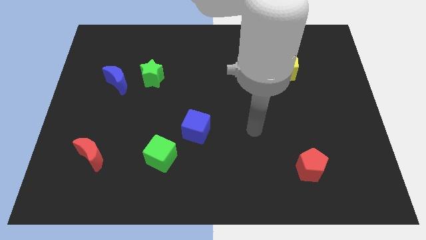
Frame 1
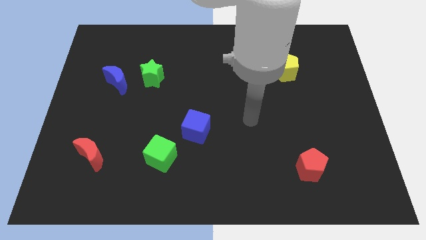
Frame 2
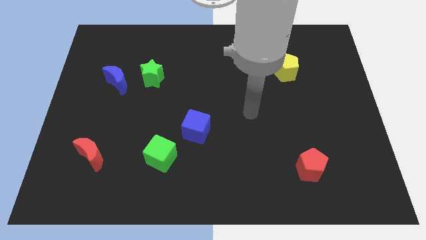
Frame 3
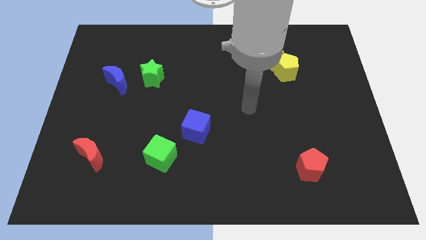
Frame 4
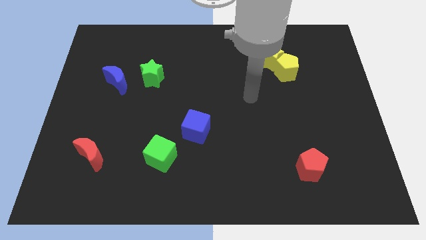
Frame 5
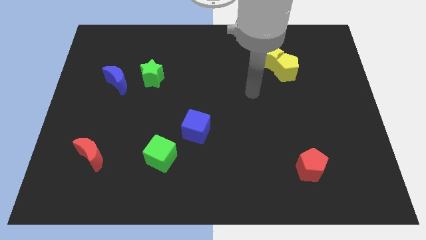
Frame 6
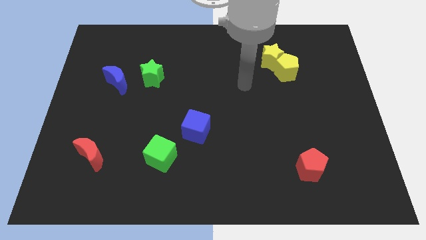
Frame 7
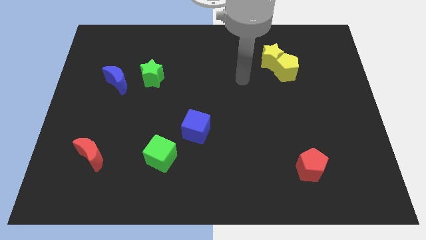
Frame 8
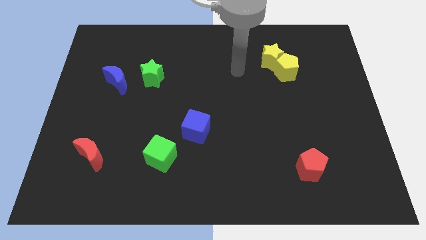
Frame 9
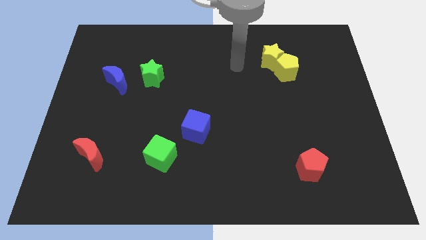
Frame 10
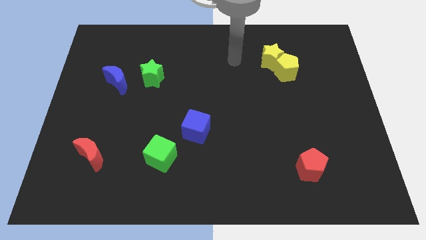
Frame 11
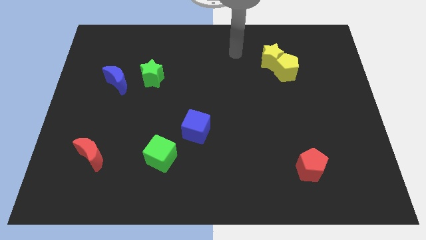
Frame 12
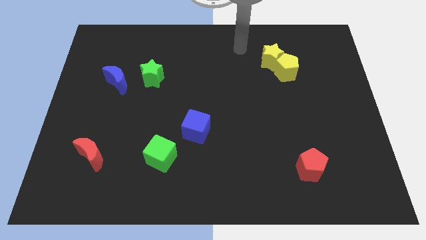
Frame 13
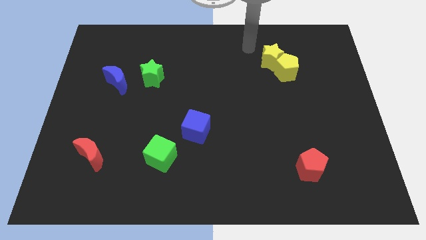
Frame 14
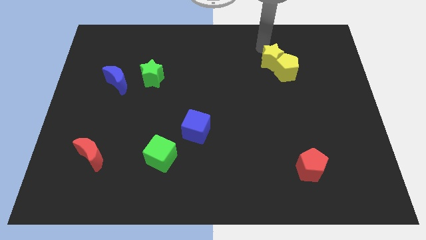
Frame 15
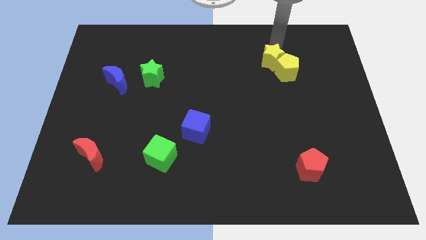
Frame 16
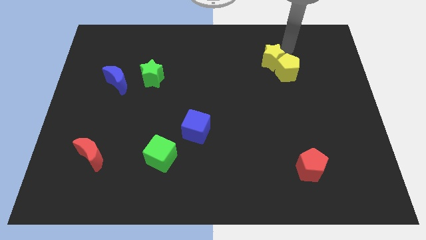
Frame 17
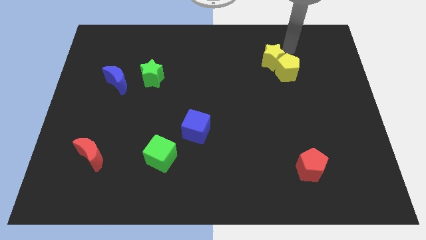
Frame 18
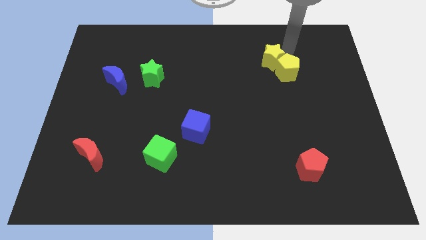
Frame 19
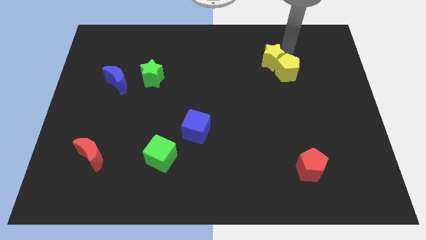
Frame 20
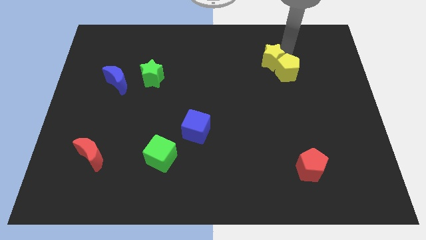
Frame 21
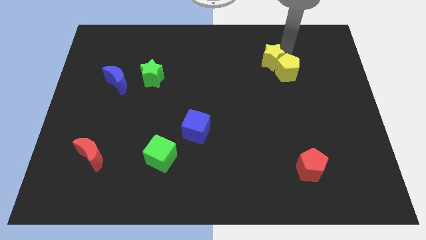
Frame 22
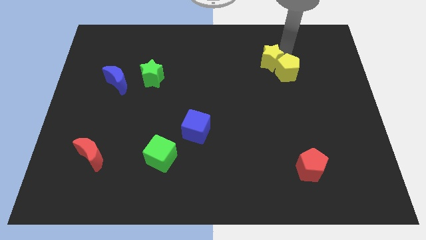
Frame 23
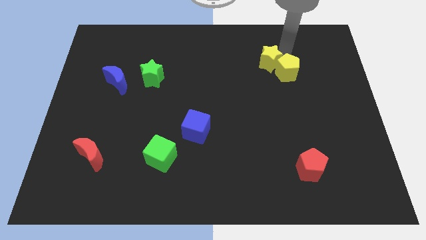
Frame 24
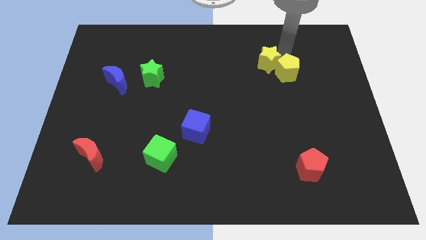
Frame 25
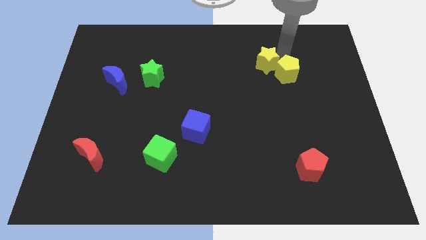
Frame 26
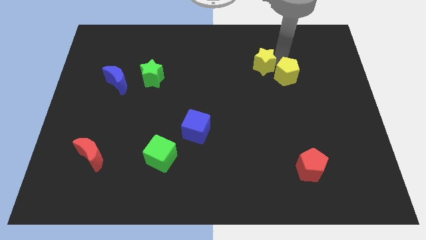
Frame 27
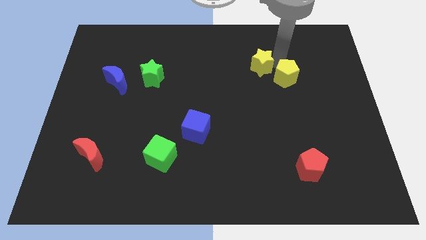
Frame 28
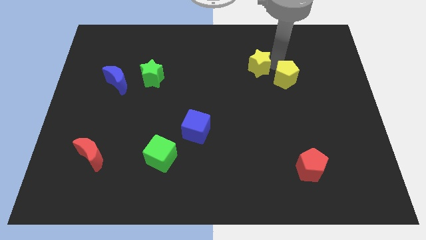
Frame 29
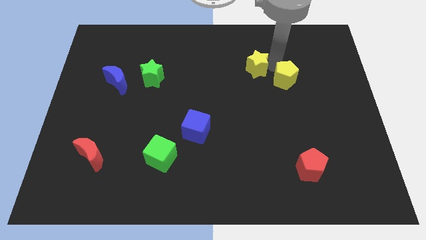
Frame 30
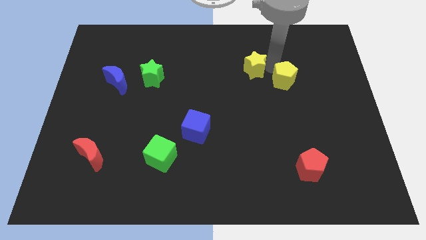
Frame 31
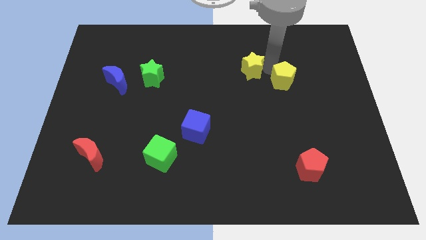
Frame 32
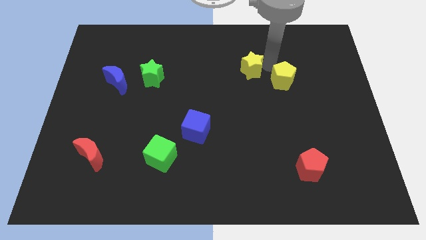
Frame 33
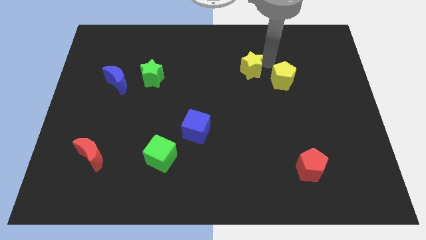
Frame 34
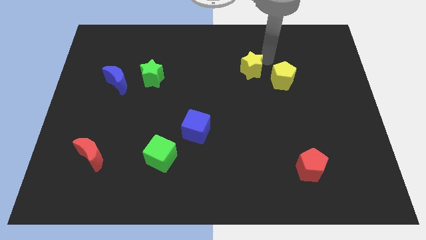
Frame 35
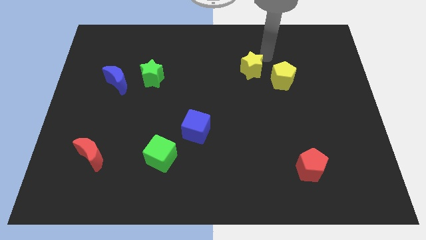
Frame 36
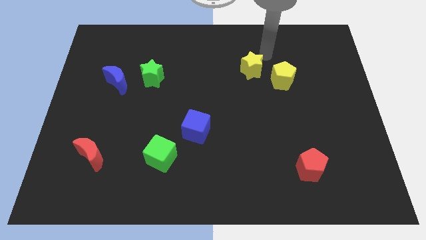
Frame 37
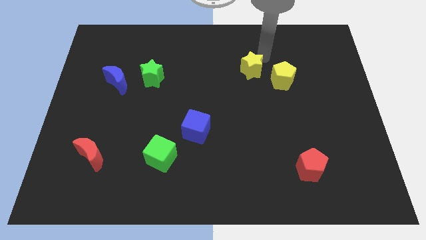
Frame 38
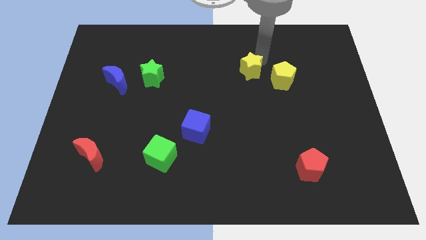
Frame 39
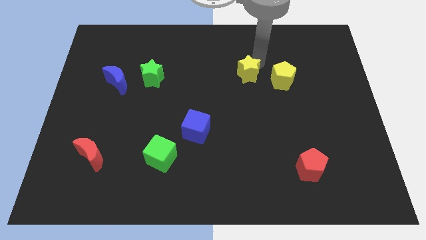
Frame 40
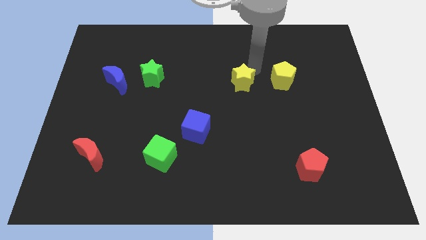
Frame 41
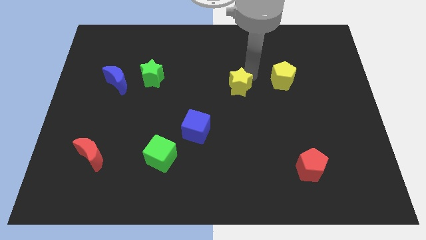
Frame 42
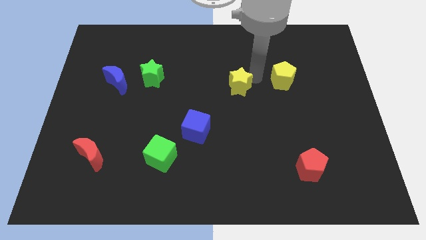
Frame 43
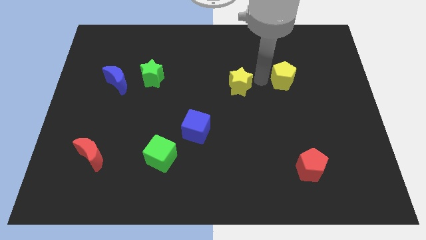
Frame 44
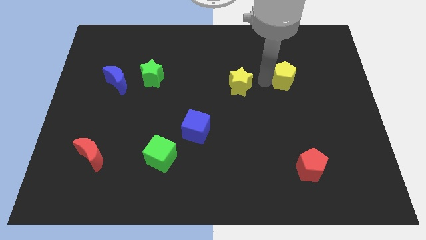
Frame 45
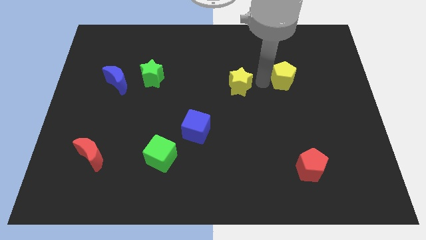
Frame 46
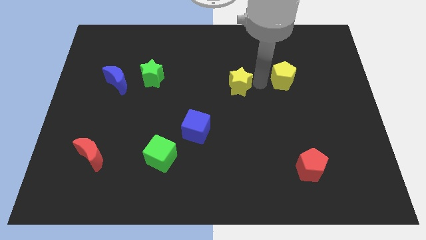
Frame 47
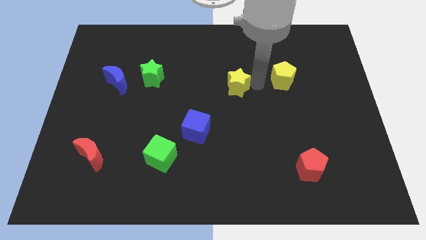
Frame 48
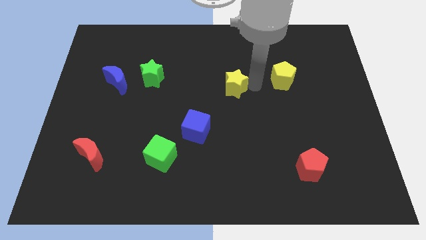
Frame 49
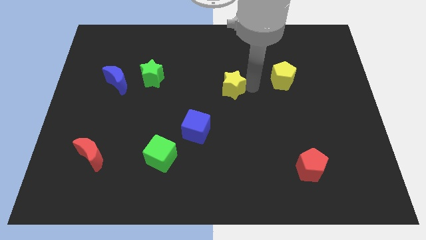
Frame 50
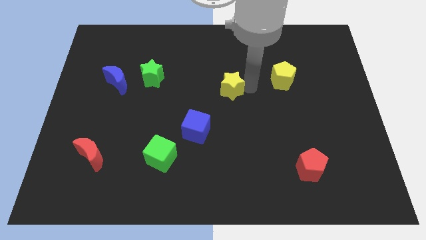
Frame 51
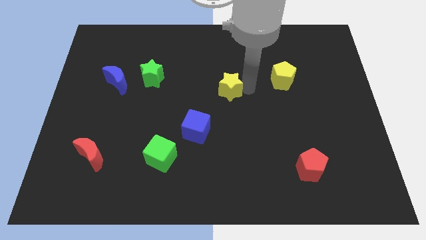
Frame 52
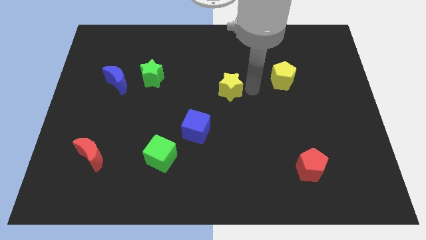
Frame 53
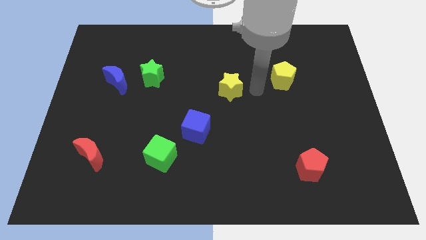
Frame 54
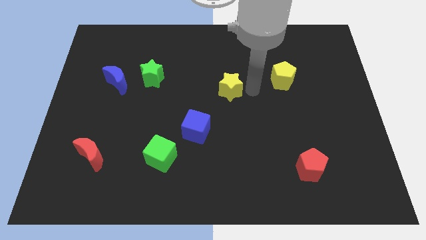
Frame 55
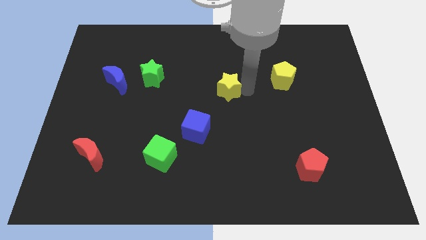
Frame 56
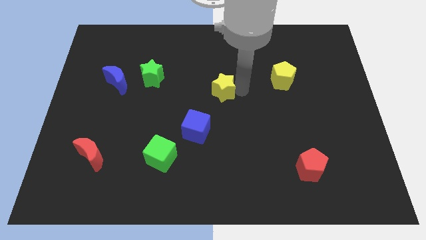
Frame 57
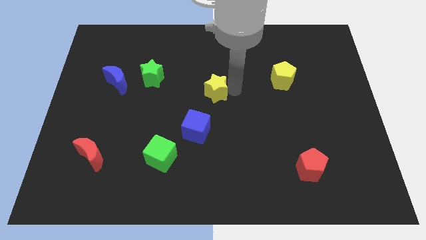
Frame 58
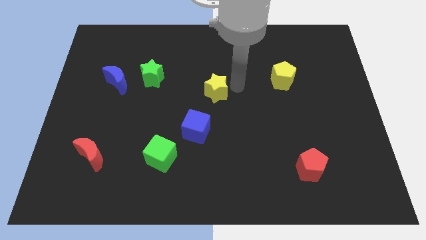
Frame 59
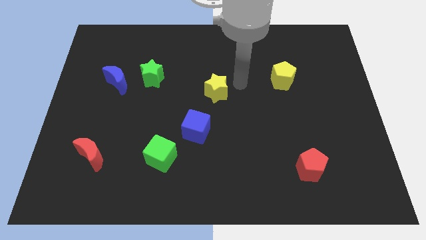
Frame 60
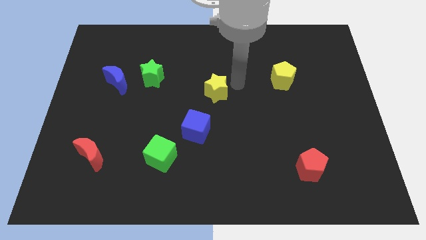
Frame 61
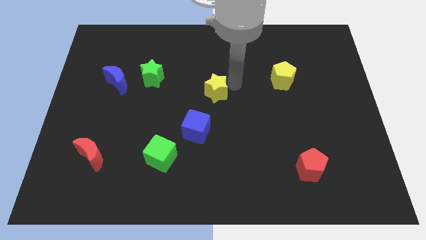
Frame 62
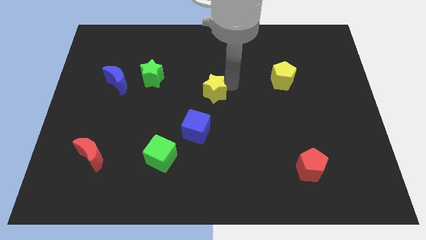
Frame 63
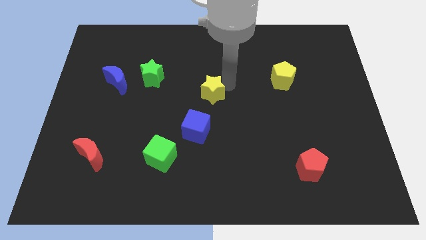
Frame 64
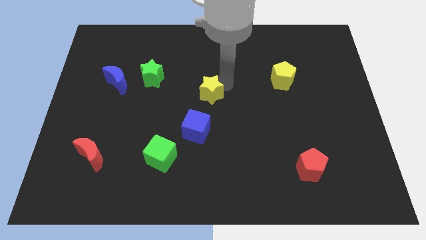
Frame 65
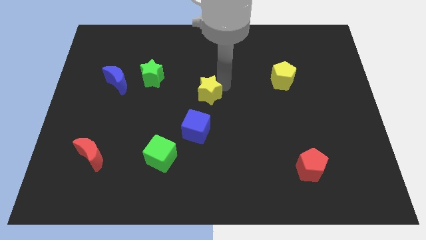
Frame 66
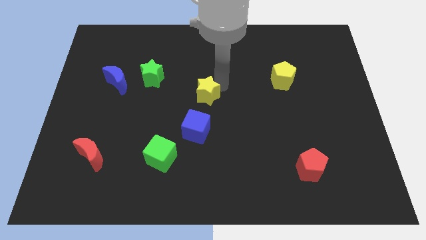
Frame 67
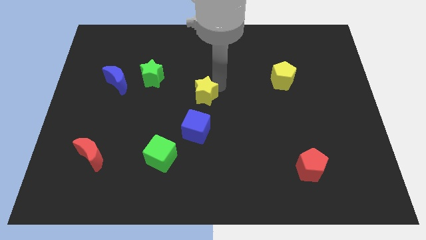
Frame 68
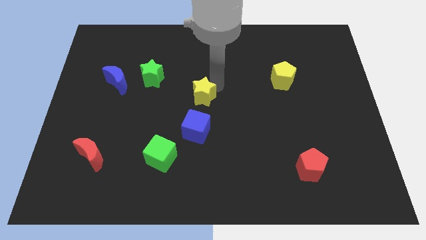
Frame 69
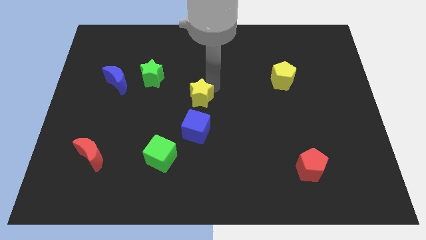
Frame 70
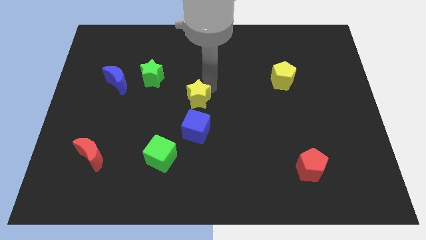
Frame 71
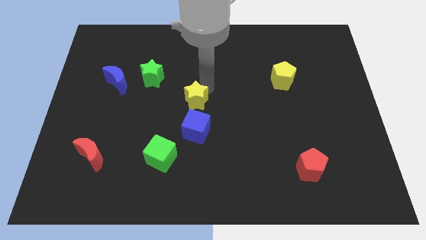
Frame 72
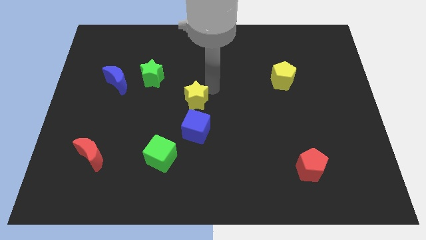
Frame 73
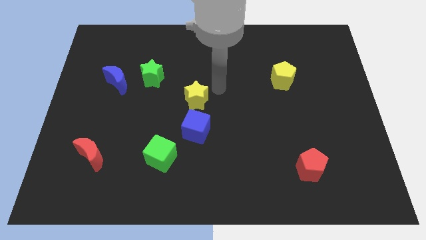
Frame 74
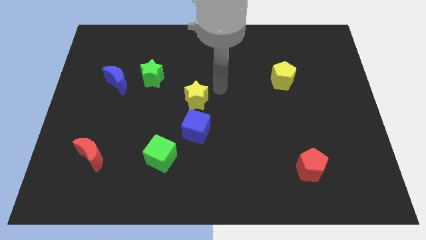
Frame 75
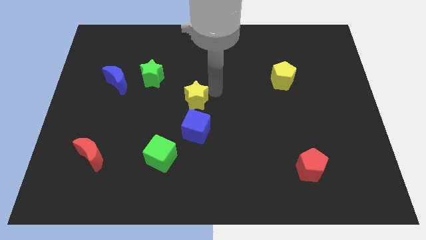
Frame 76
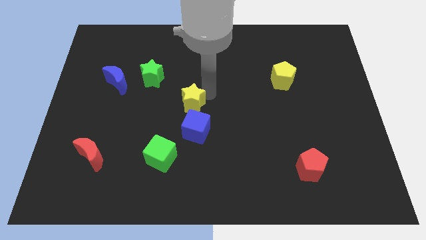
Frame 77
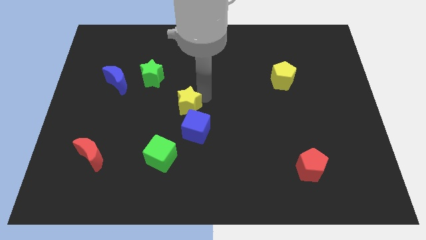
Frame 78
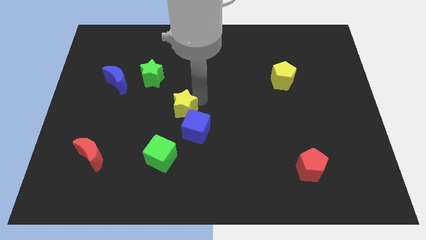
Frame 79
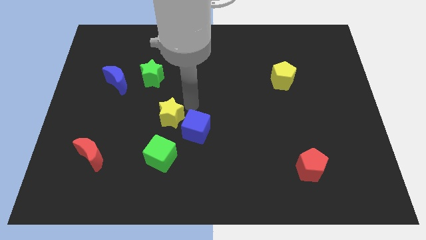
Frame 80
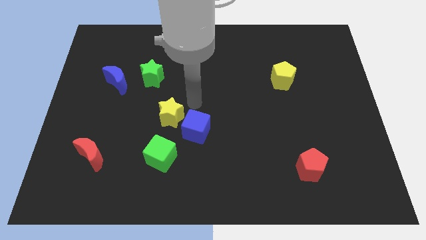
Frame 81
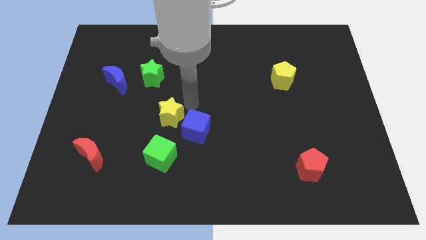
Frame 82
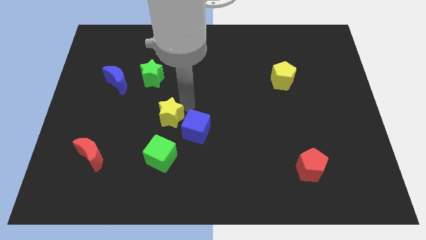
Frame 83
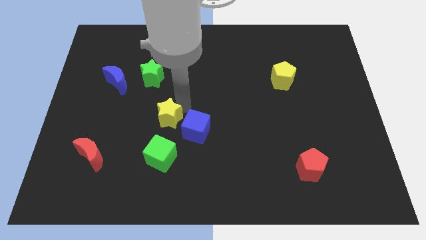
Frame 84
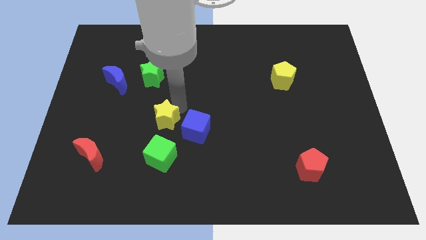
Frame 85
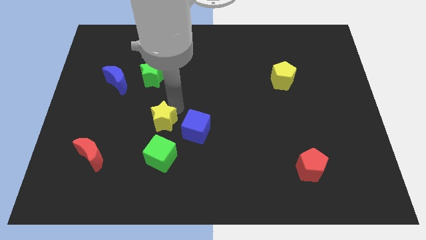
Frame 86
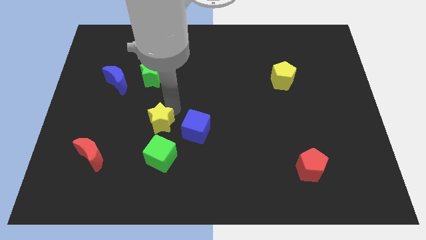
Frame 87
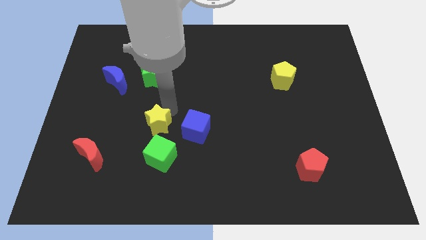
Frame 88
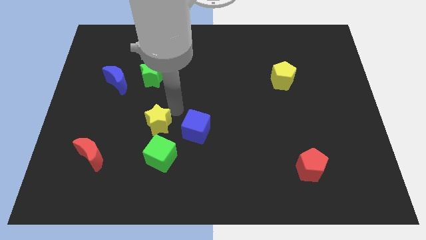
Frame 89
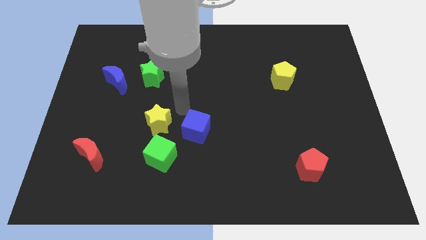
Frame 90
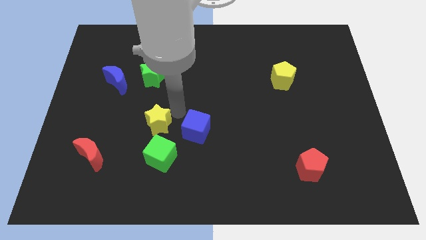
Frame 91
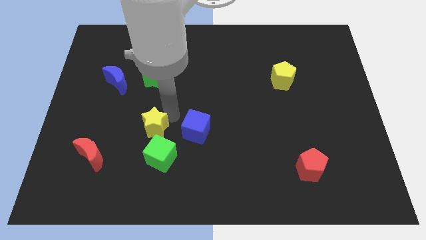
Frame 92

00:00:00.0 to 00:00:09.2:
slide the yellow star to the top left of the green cube
